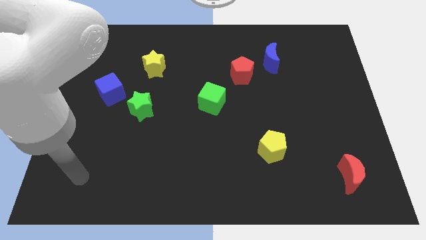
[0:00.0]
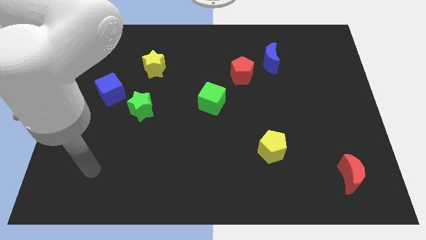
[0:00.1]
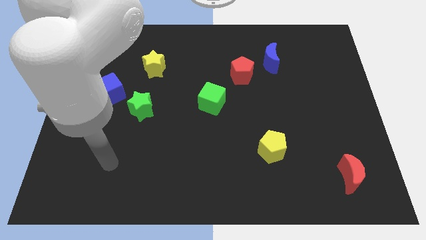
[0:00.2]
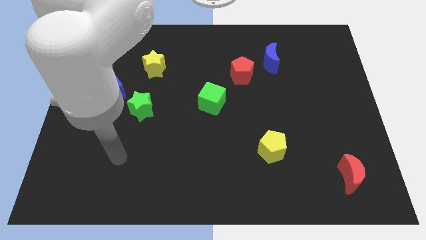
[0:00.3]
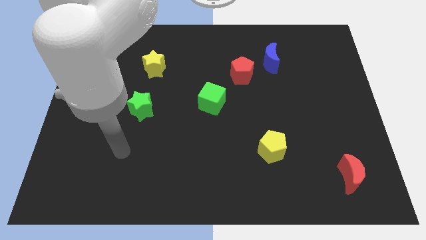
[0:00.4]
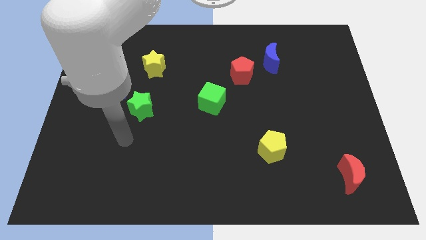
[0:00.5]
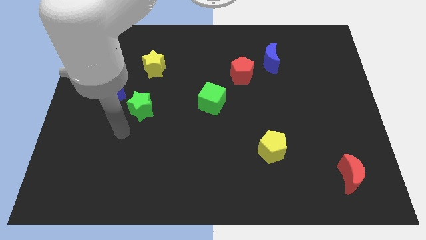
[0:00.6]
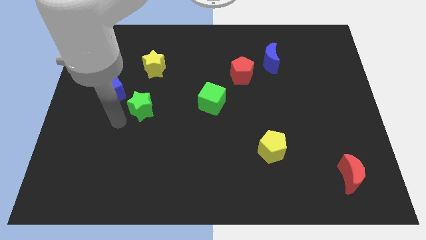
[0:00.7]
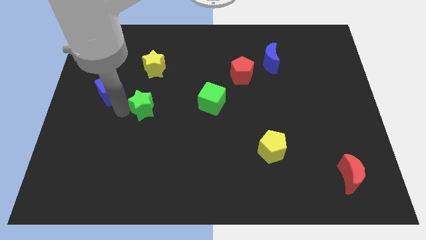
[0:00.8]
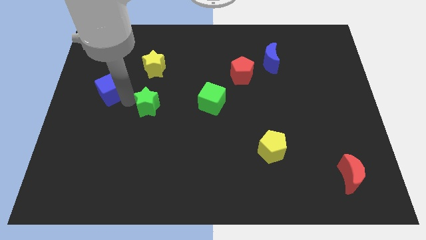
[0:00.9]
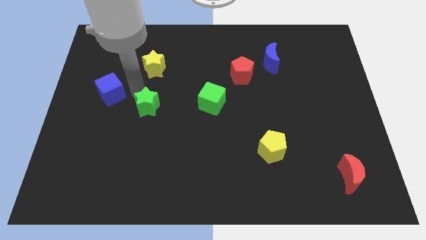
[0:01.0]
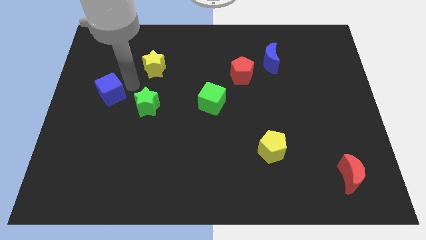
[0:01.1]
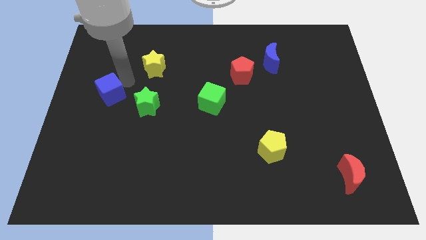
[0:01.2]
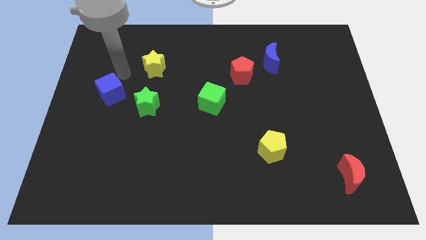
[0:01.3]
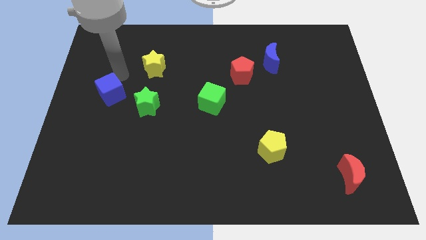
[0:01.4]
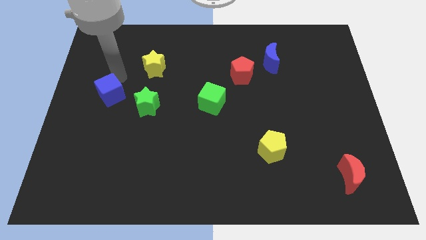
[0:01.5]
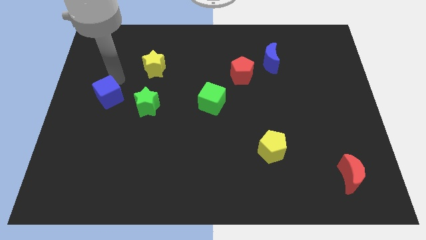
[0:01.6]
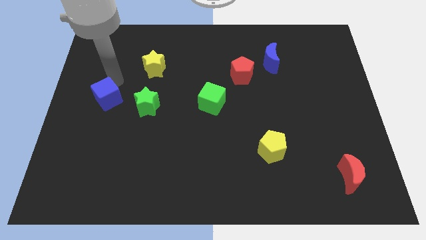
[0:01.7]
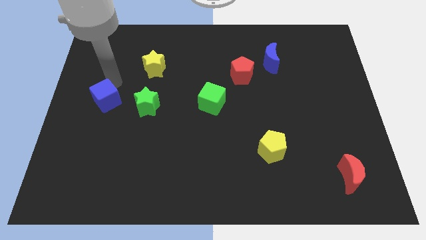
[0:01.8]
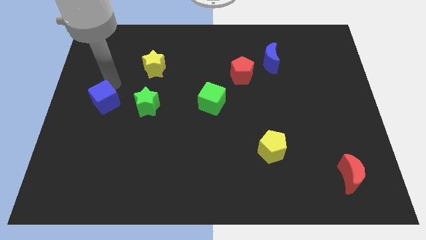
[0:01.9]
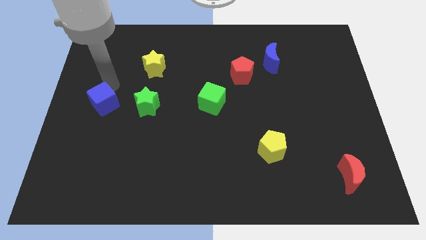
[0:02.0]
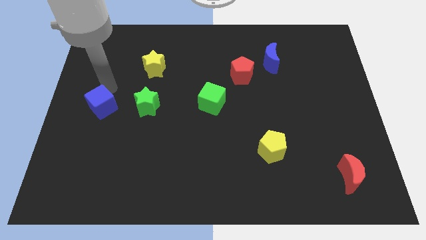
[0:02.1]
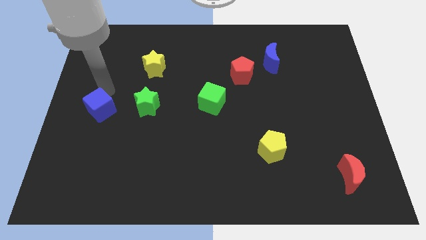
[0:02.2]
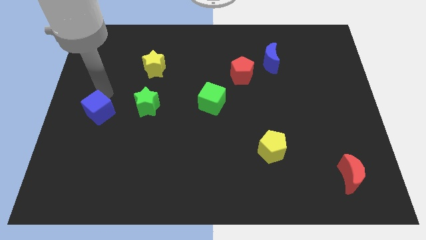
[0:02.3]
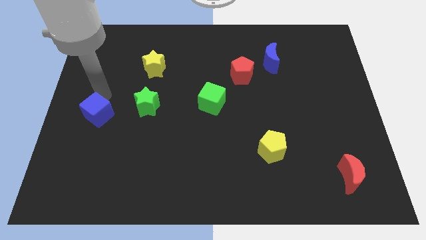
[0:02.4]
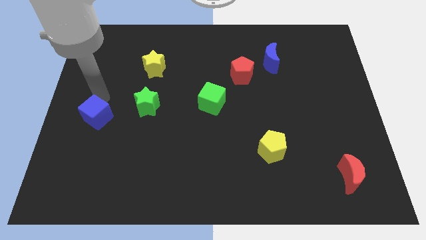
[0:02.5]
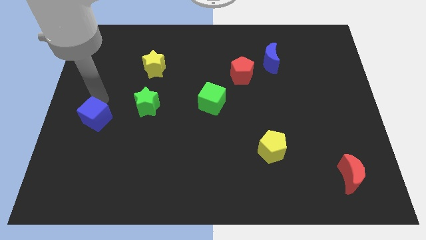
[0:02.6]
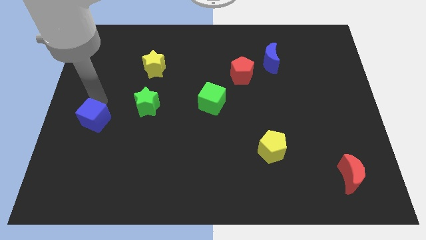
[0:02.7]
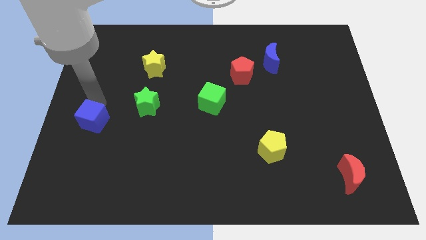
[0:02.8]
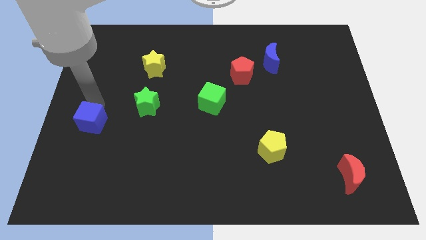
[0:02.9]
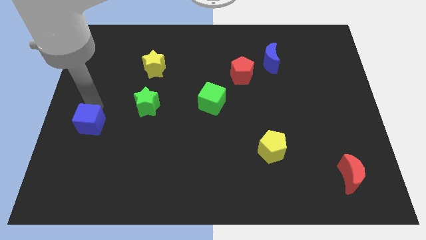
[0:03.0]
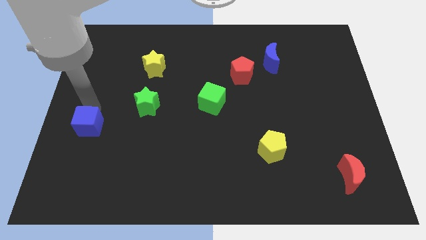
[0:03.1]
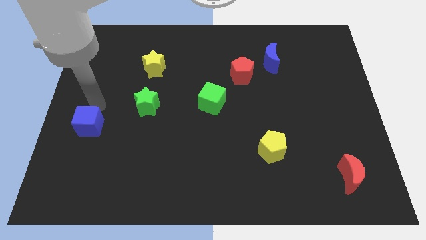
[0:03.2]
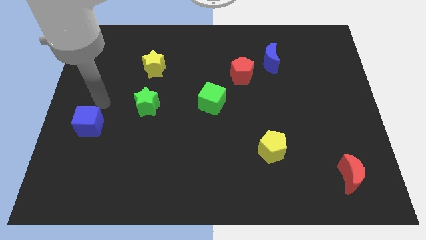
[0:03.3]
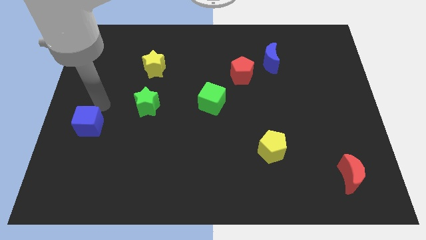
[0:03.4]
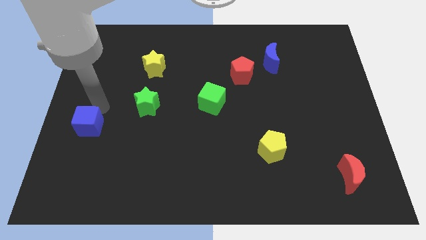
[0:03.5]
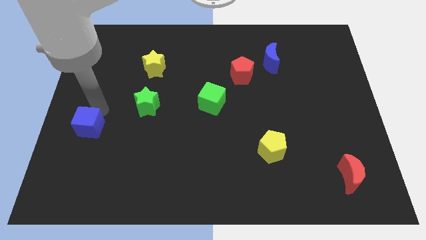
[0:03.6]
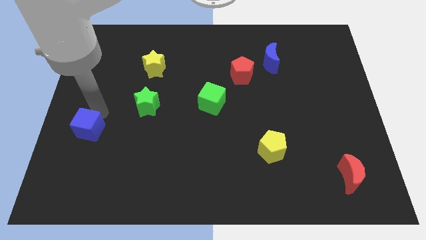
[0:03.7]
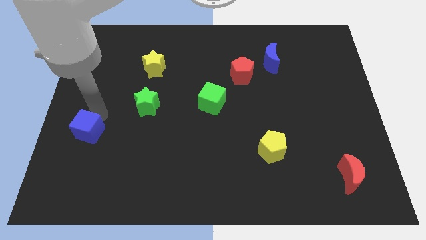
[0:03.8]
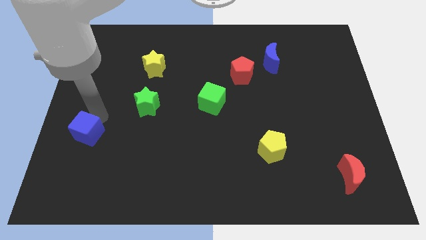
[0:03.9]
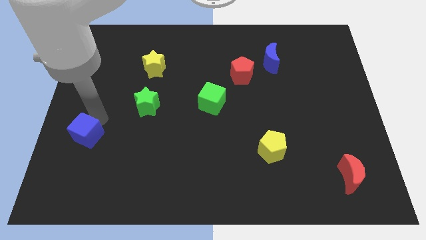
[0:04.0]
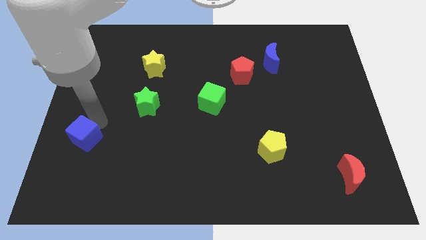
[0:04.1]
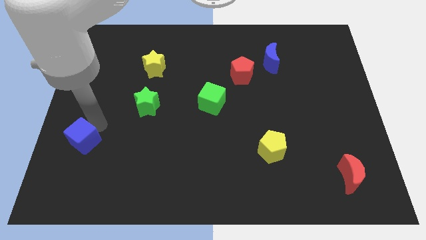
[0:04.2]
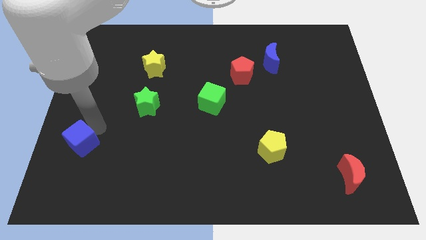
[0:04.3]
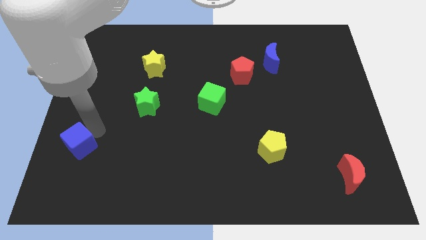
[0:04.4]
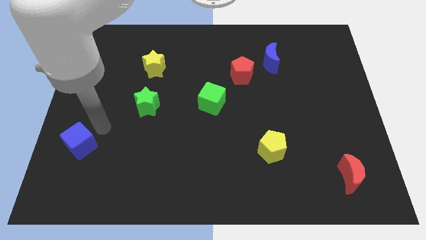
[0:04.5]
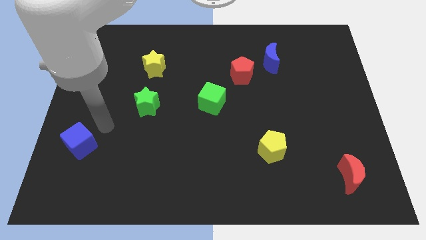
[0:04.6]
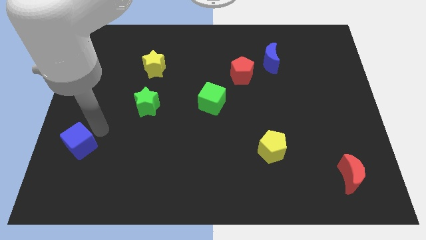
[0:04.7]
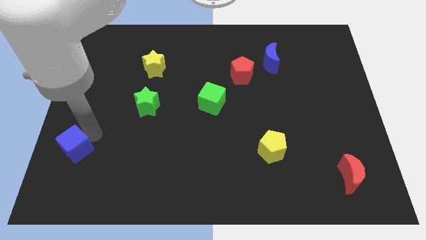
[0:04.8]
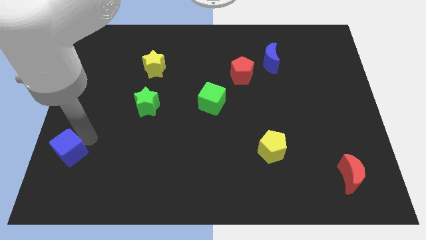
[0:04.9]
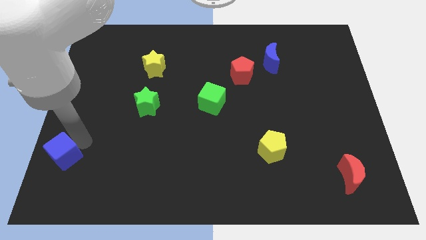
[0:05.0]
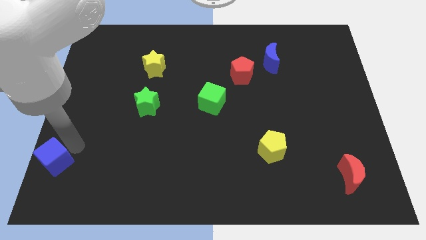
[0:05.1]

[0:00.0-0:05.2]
slide the blue cube to the bottom left corner
